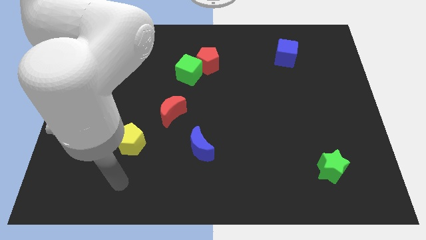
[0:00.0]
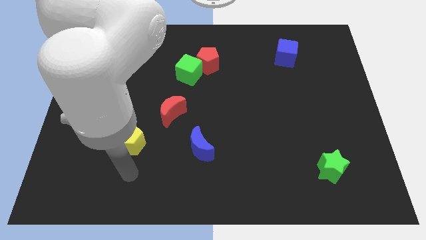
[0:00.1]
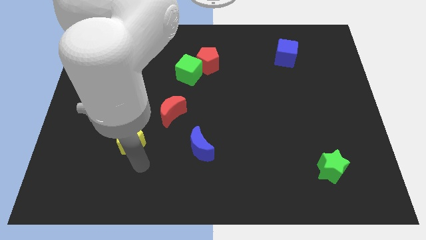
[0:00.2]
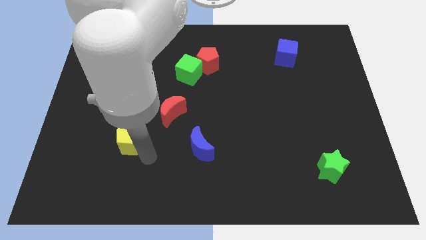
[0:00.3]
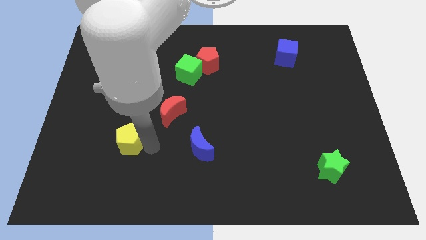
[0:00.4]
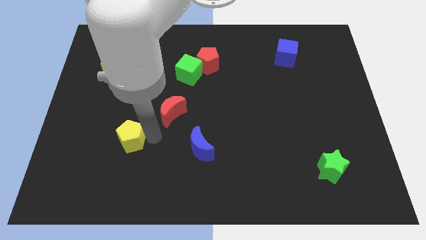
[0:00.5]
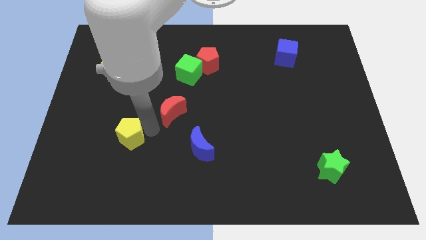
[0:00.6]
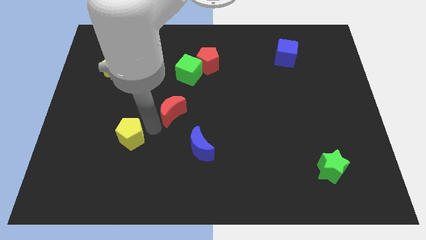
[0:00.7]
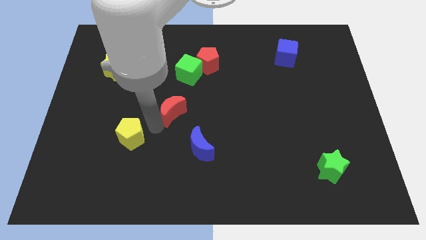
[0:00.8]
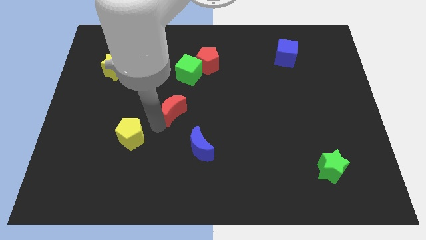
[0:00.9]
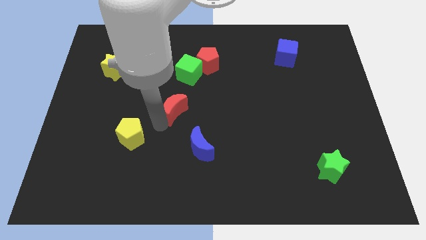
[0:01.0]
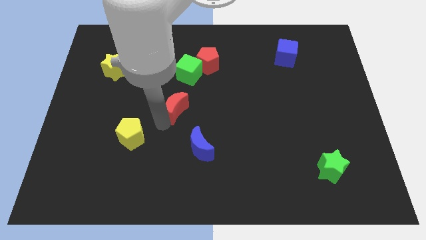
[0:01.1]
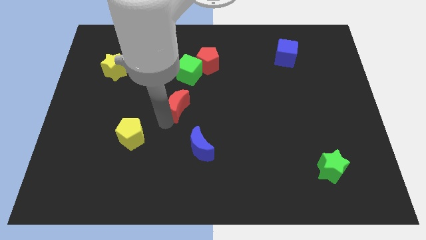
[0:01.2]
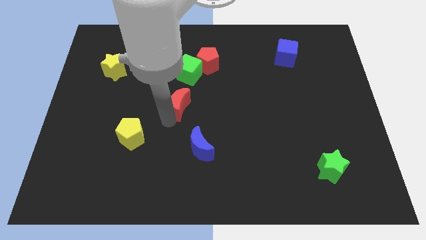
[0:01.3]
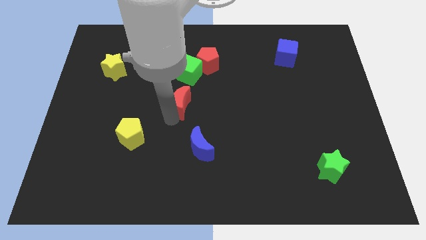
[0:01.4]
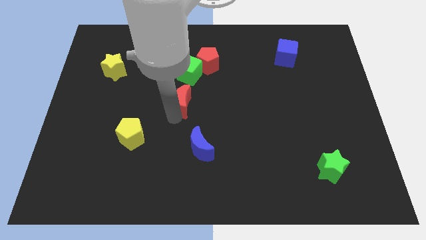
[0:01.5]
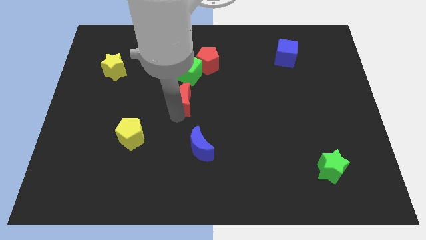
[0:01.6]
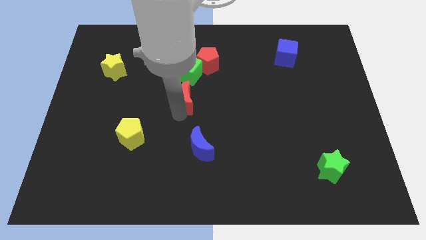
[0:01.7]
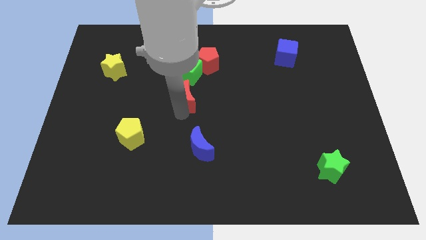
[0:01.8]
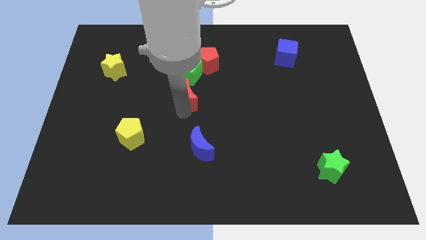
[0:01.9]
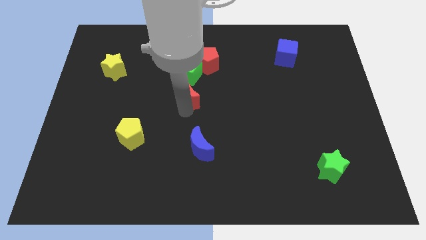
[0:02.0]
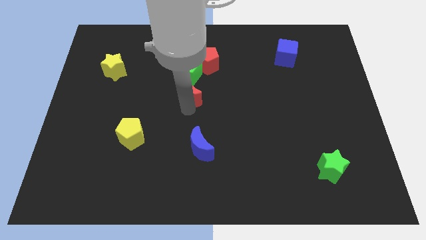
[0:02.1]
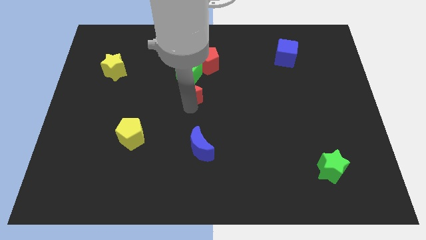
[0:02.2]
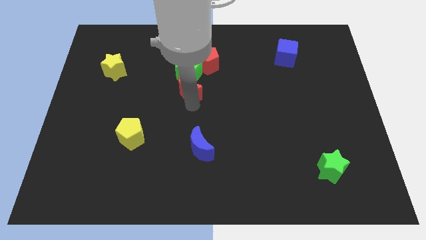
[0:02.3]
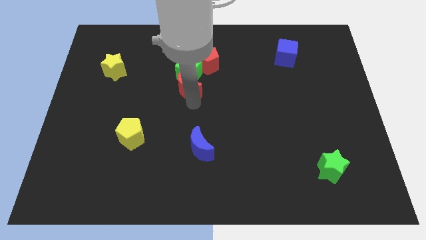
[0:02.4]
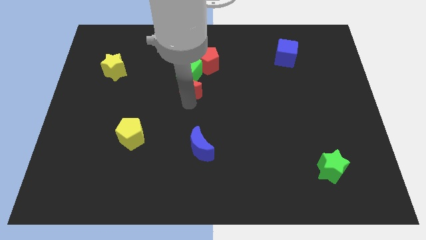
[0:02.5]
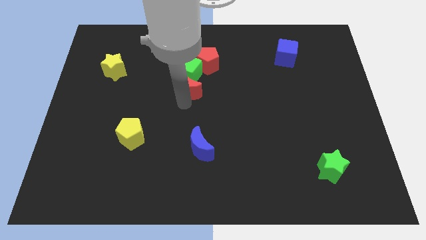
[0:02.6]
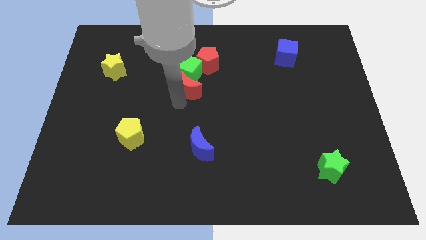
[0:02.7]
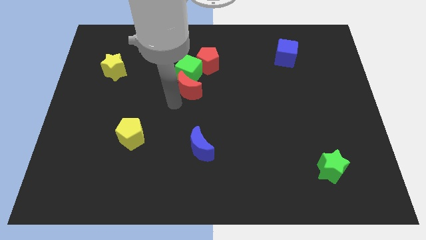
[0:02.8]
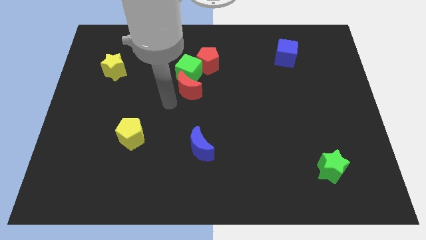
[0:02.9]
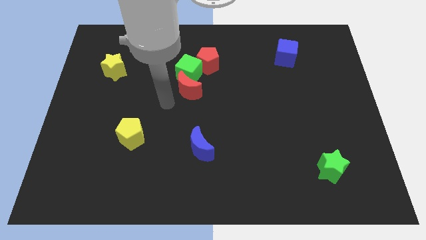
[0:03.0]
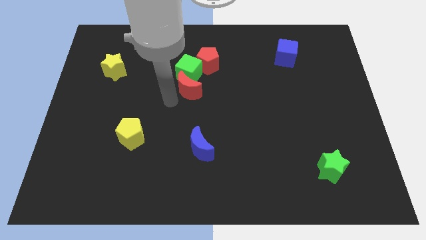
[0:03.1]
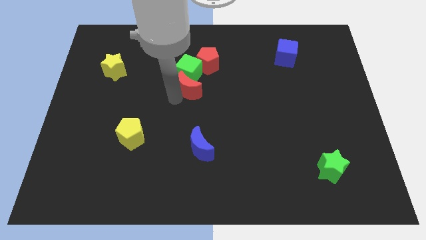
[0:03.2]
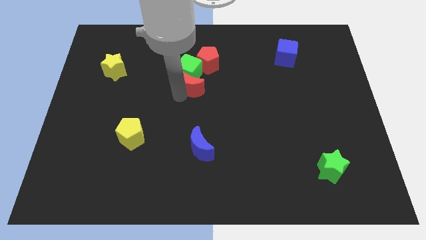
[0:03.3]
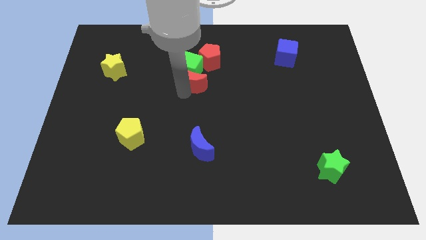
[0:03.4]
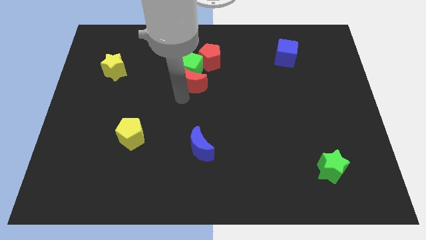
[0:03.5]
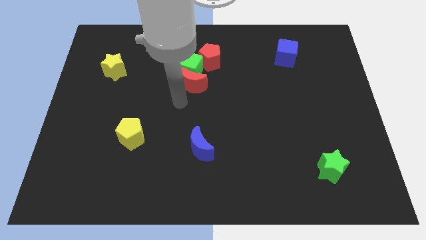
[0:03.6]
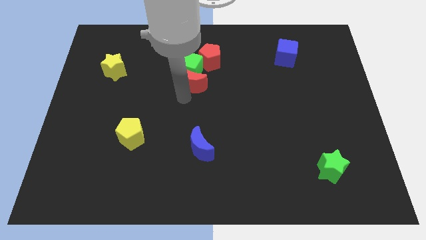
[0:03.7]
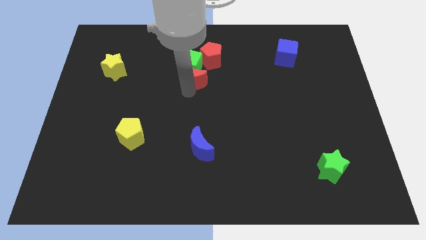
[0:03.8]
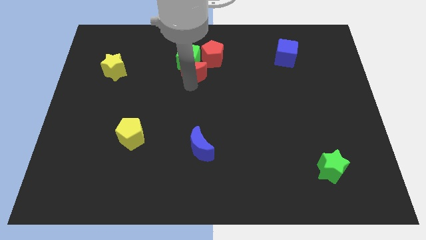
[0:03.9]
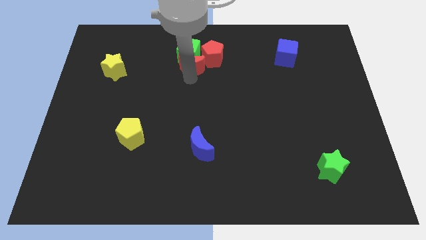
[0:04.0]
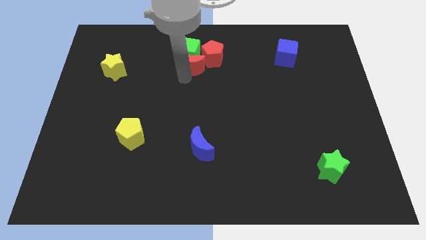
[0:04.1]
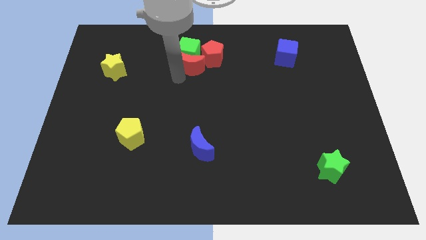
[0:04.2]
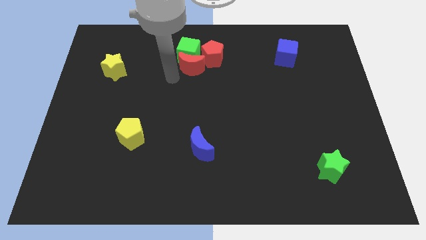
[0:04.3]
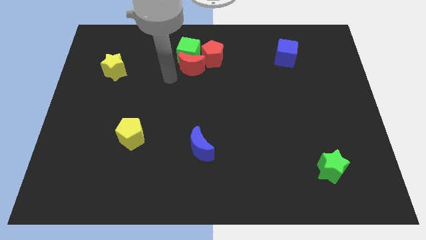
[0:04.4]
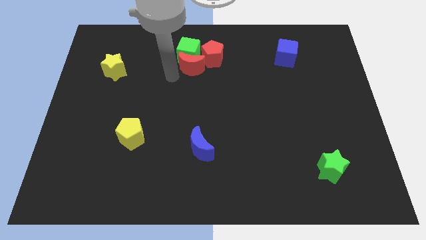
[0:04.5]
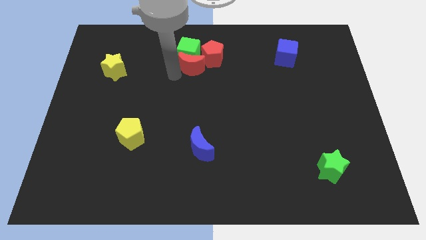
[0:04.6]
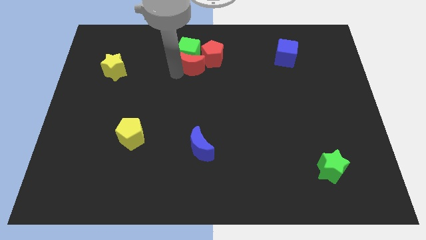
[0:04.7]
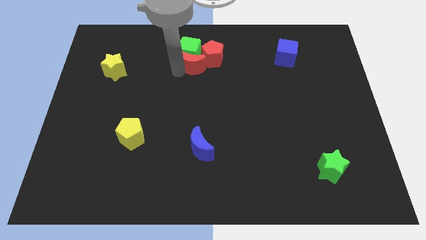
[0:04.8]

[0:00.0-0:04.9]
move the red moon to the red pentagon

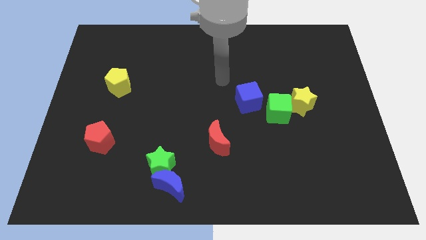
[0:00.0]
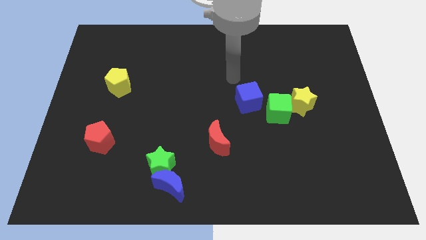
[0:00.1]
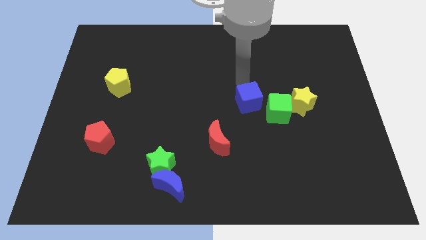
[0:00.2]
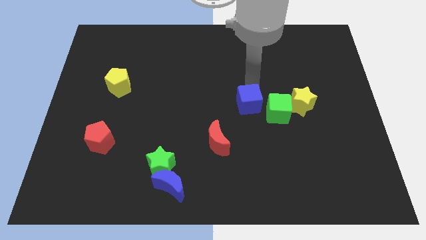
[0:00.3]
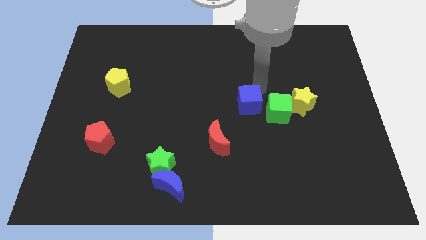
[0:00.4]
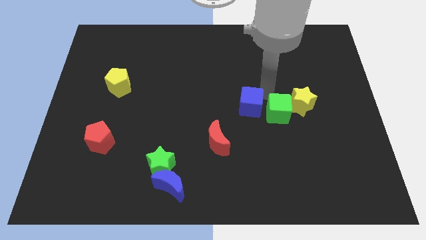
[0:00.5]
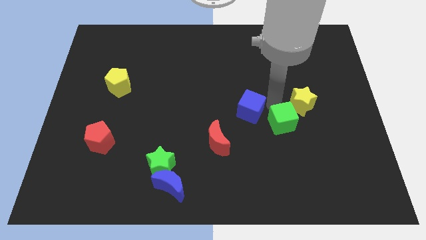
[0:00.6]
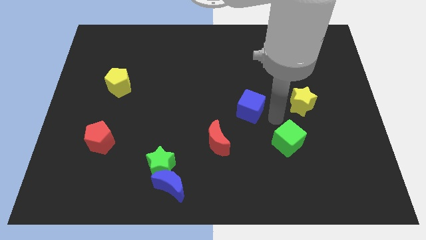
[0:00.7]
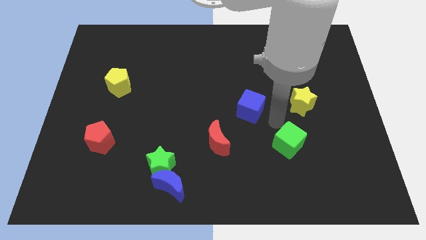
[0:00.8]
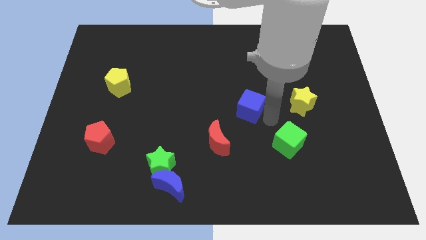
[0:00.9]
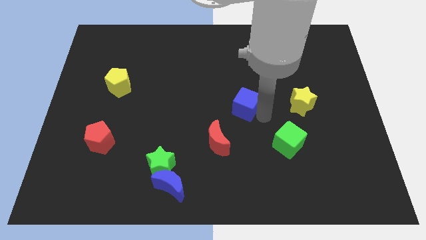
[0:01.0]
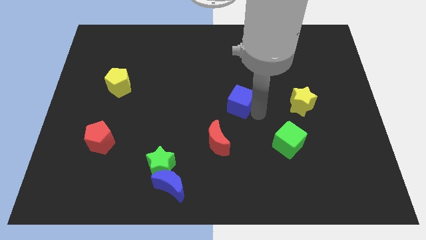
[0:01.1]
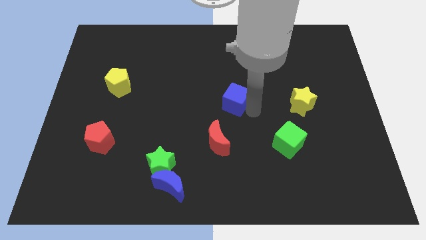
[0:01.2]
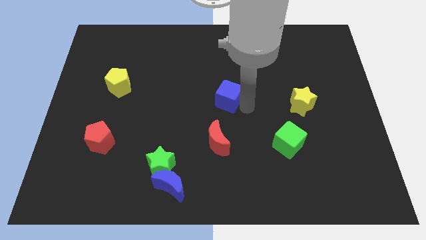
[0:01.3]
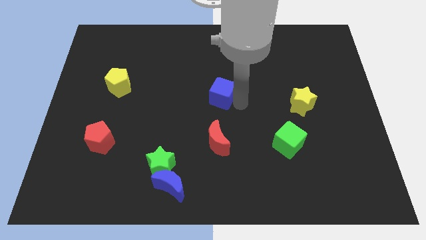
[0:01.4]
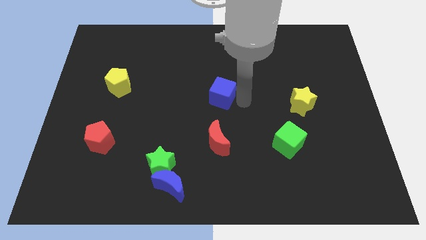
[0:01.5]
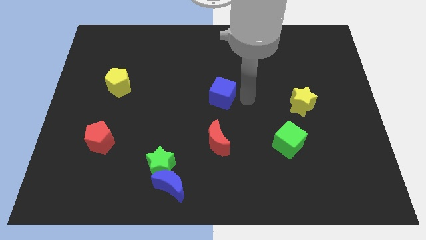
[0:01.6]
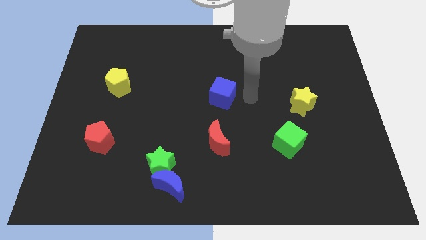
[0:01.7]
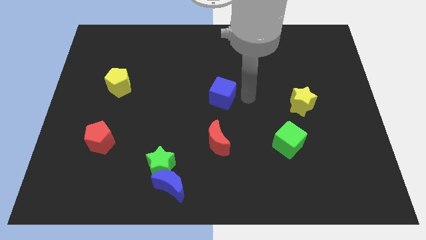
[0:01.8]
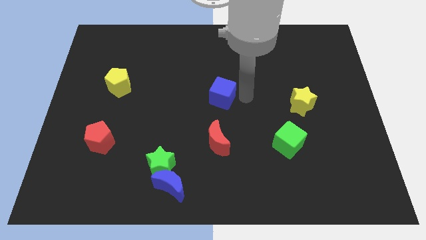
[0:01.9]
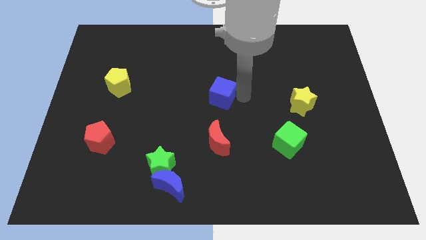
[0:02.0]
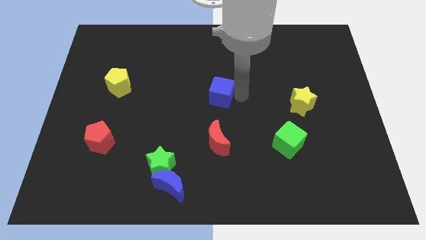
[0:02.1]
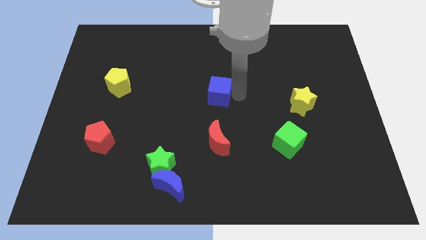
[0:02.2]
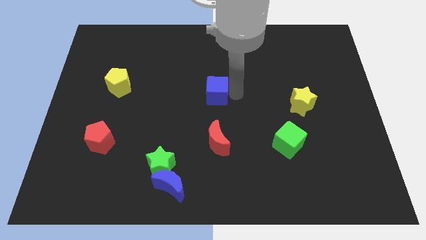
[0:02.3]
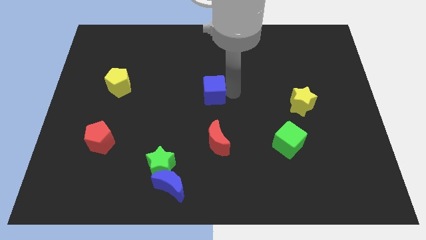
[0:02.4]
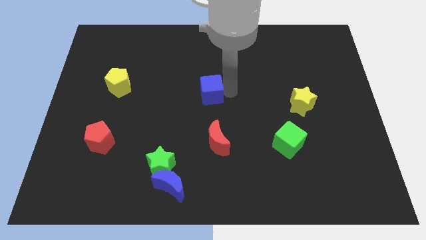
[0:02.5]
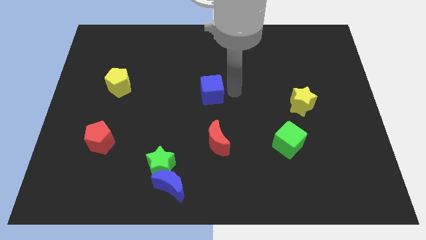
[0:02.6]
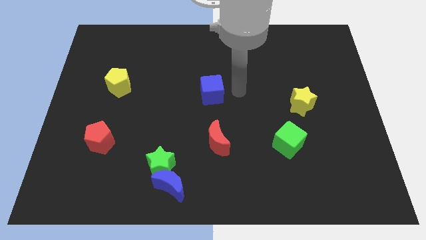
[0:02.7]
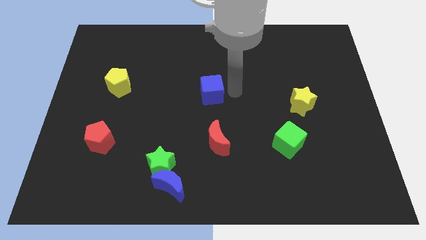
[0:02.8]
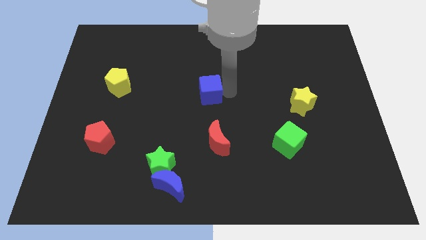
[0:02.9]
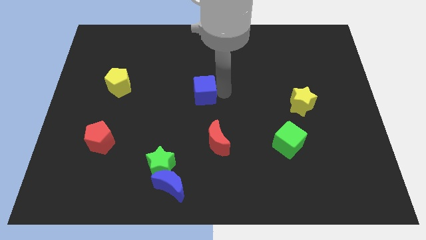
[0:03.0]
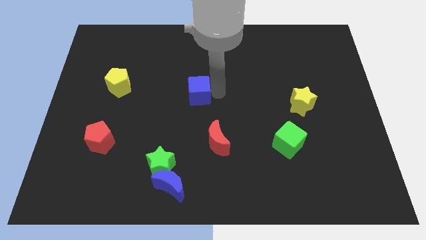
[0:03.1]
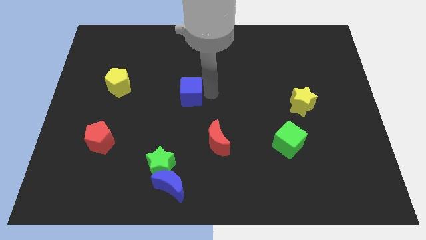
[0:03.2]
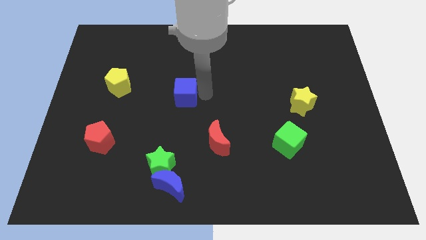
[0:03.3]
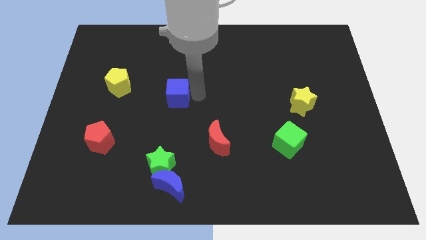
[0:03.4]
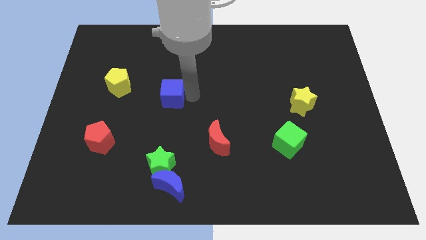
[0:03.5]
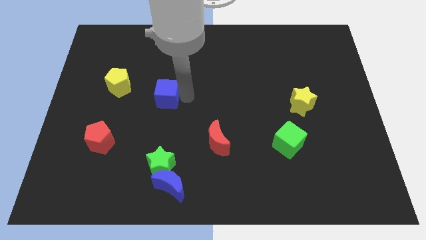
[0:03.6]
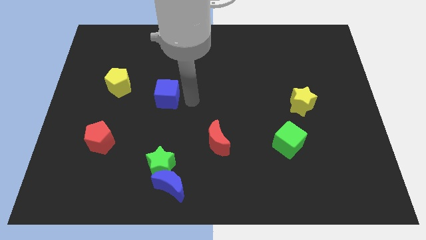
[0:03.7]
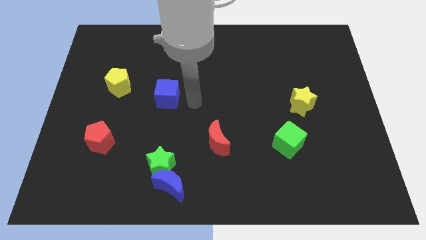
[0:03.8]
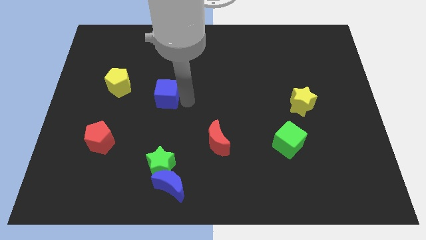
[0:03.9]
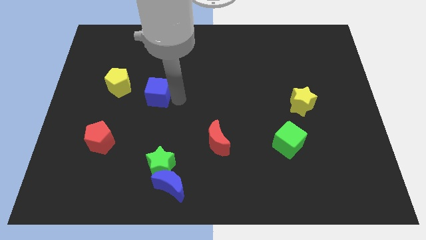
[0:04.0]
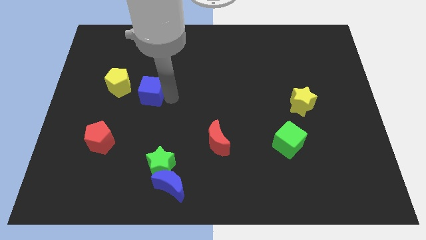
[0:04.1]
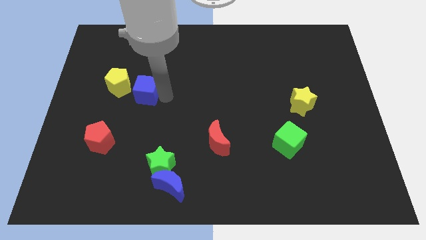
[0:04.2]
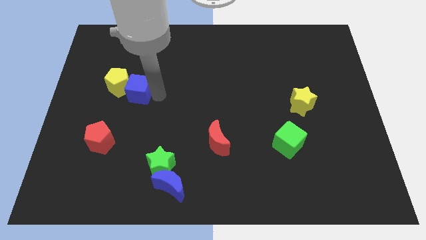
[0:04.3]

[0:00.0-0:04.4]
move the blue cube to the yellow pentagon
